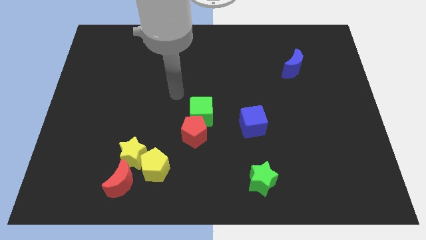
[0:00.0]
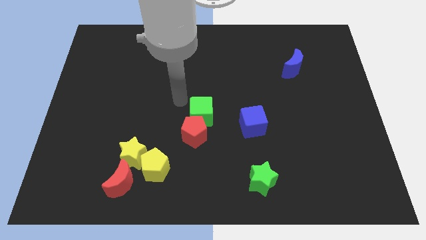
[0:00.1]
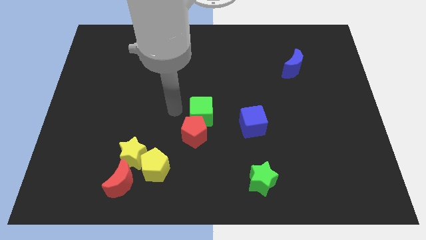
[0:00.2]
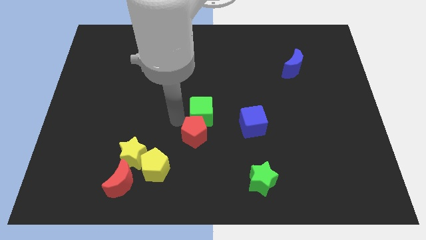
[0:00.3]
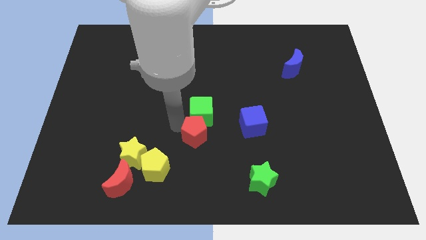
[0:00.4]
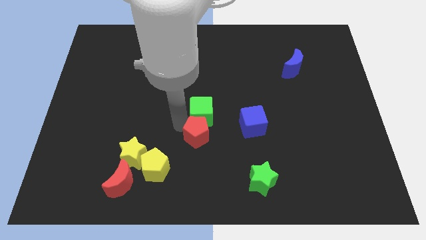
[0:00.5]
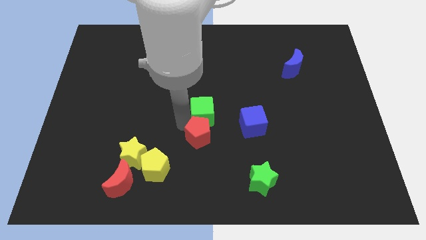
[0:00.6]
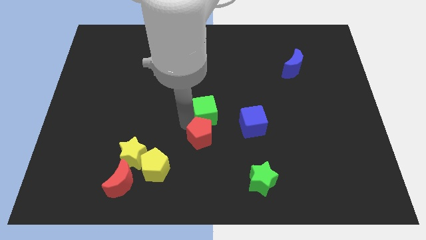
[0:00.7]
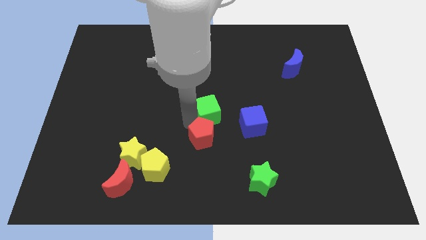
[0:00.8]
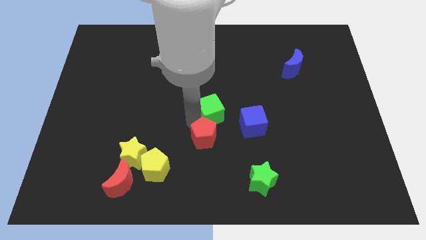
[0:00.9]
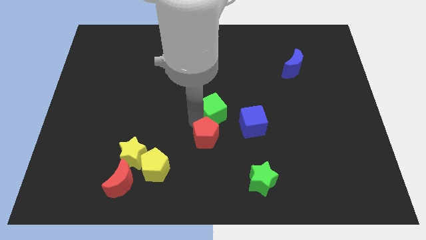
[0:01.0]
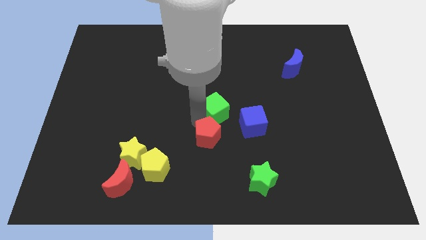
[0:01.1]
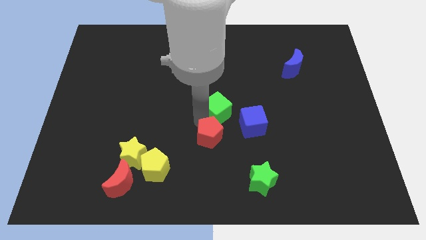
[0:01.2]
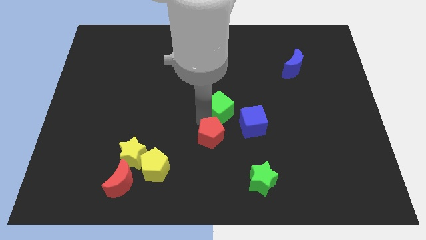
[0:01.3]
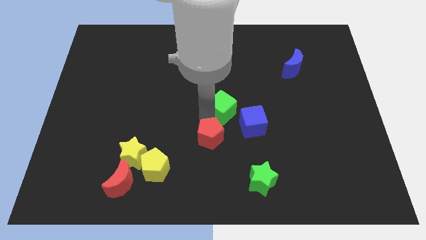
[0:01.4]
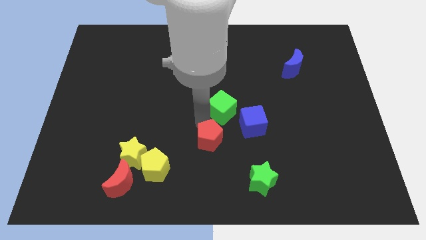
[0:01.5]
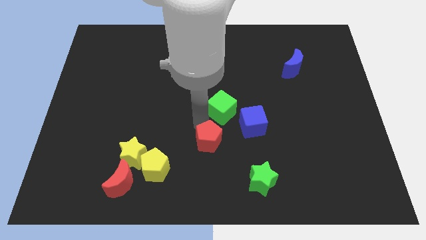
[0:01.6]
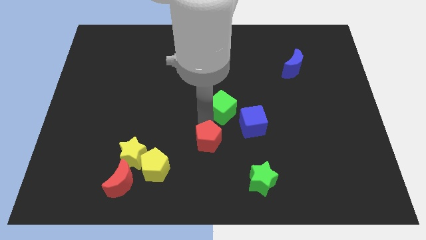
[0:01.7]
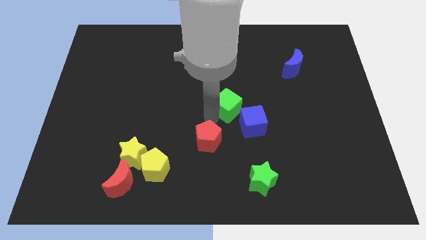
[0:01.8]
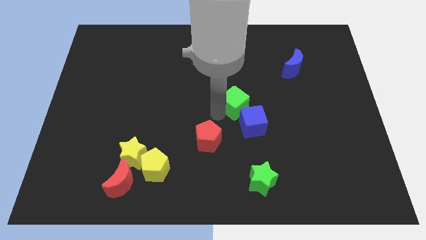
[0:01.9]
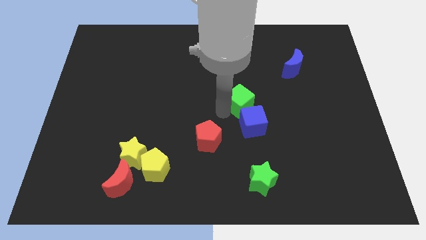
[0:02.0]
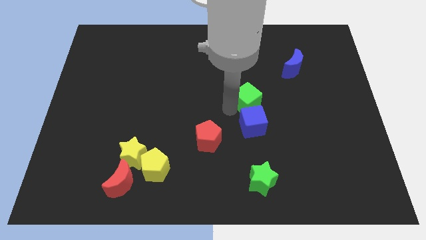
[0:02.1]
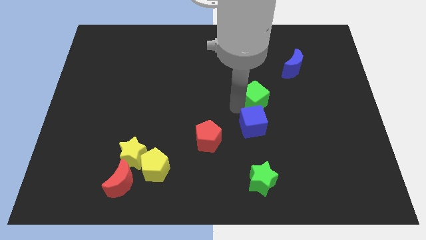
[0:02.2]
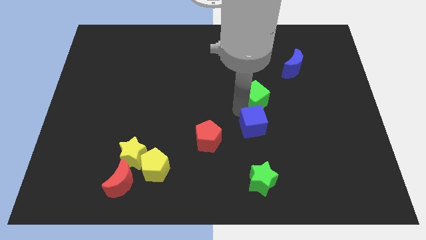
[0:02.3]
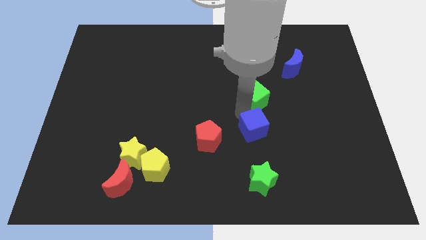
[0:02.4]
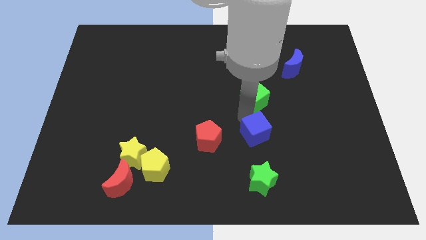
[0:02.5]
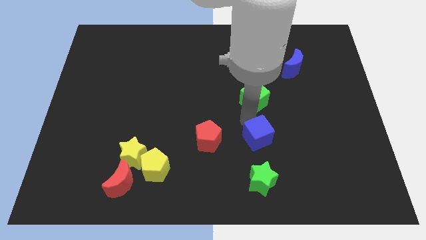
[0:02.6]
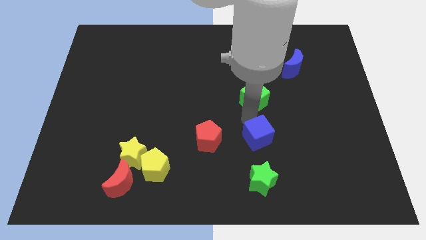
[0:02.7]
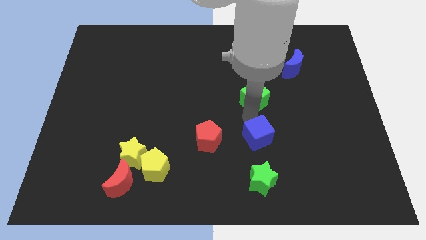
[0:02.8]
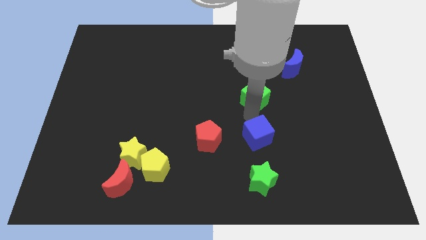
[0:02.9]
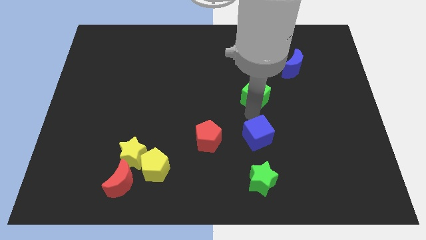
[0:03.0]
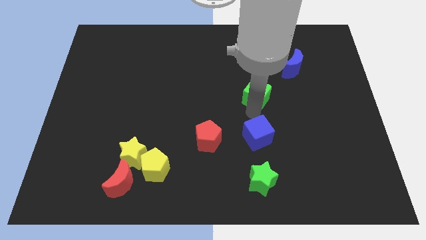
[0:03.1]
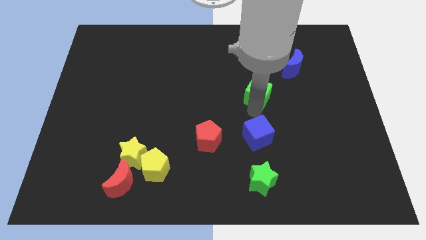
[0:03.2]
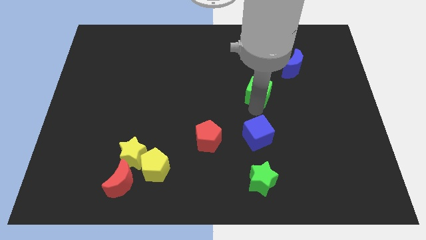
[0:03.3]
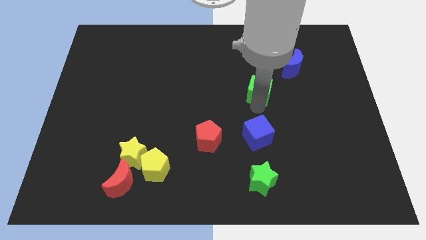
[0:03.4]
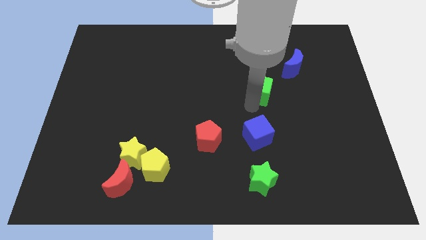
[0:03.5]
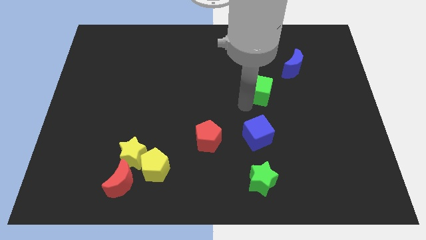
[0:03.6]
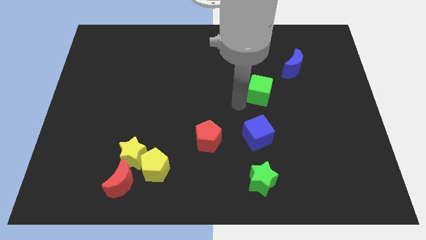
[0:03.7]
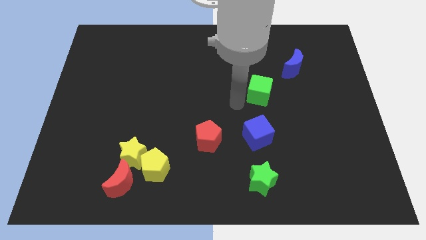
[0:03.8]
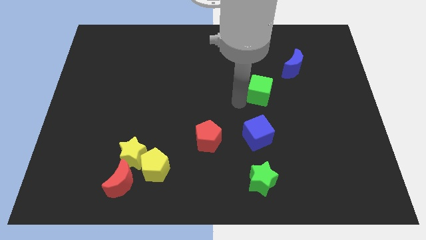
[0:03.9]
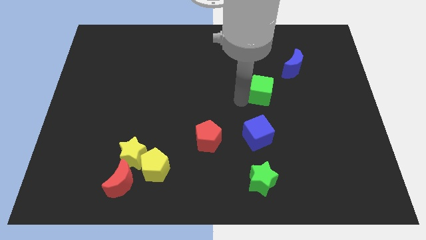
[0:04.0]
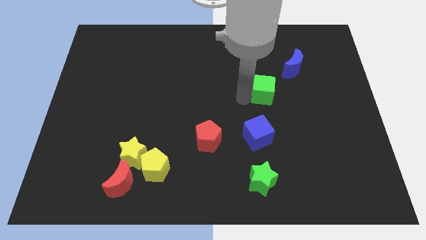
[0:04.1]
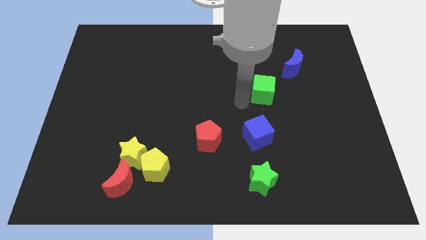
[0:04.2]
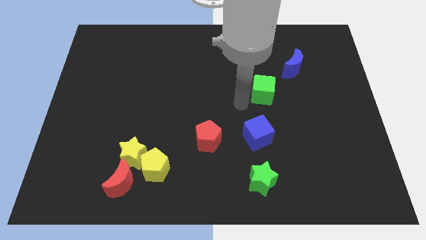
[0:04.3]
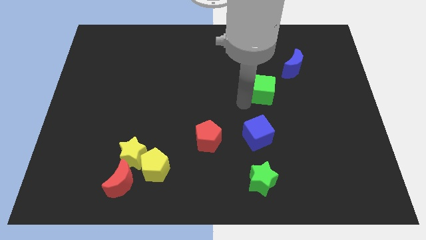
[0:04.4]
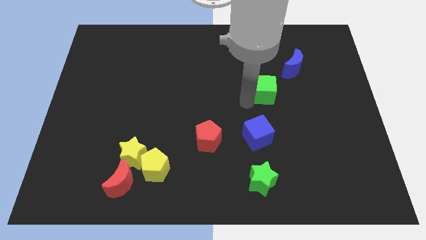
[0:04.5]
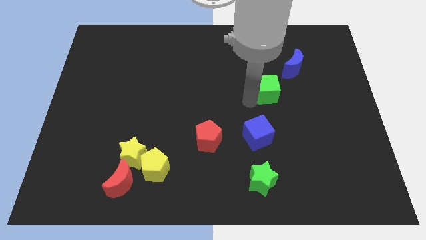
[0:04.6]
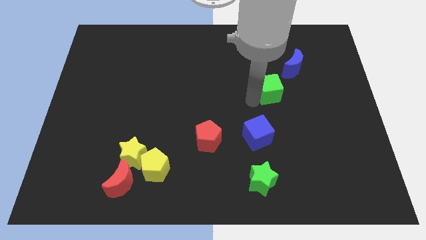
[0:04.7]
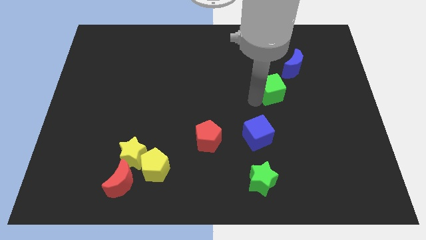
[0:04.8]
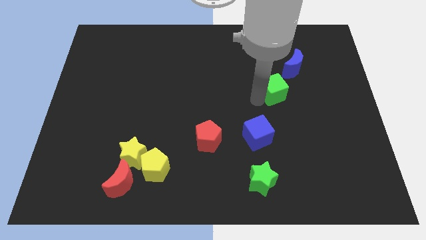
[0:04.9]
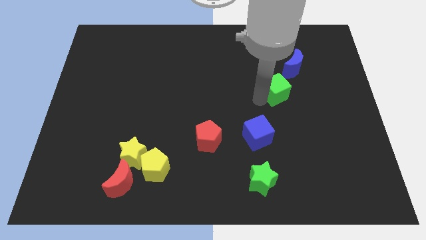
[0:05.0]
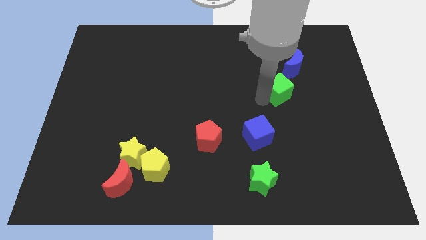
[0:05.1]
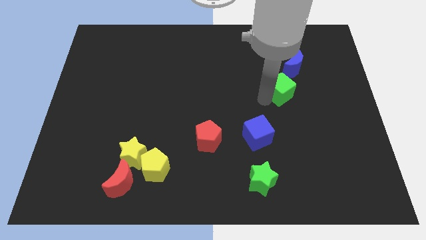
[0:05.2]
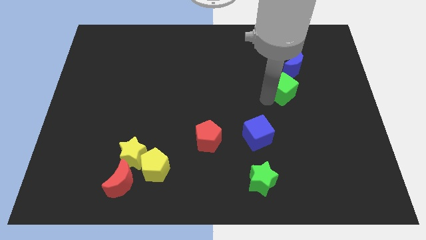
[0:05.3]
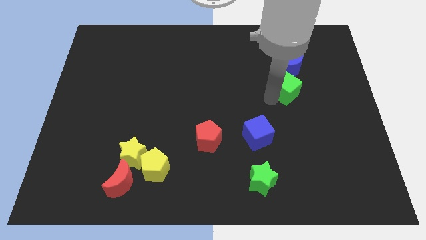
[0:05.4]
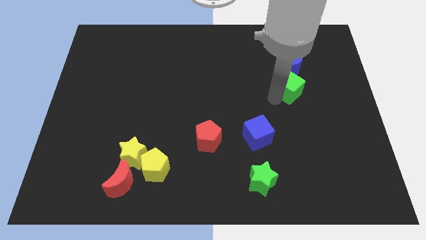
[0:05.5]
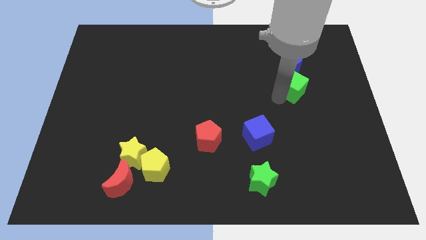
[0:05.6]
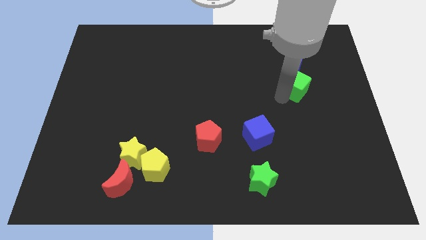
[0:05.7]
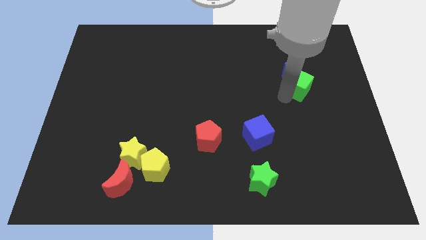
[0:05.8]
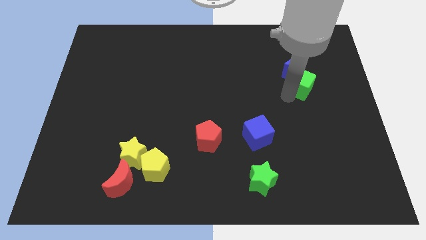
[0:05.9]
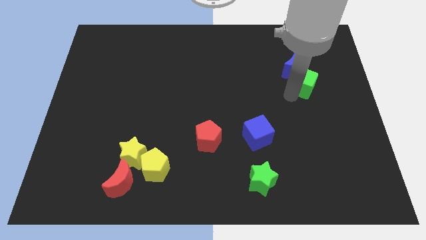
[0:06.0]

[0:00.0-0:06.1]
put the green cube close to the blue moon
